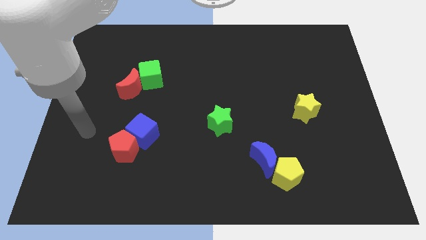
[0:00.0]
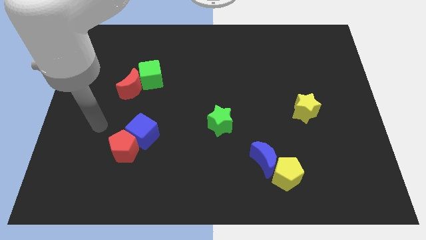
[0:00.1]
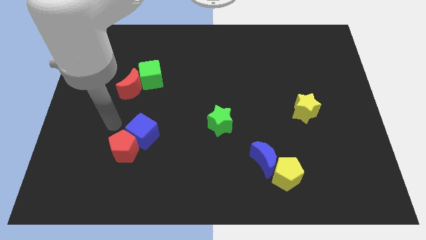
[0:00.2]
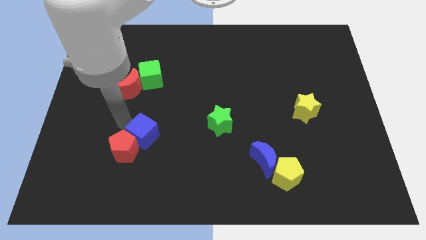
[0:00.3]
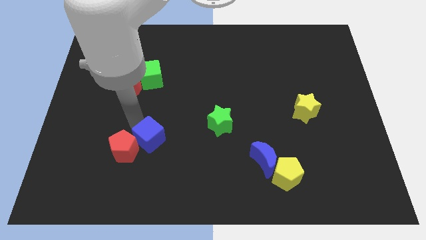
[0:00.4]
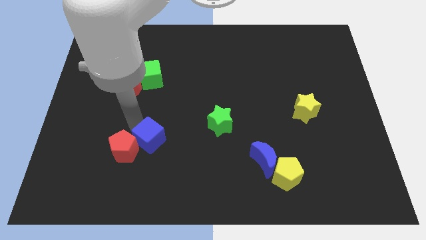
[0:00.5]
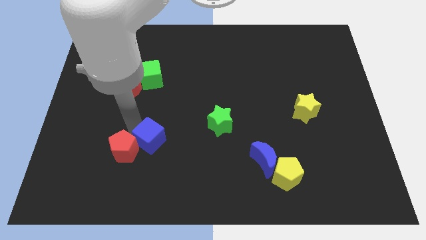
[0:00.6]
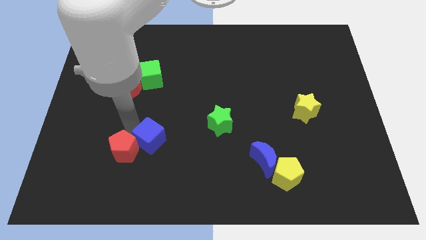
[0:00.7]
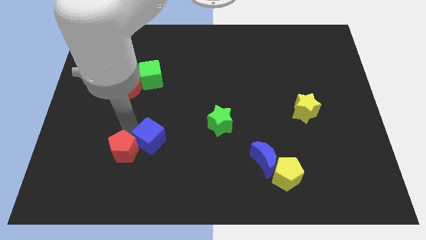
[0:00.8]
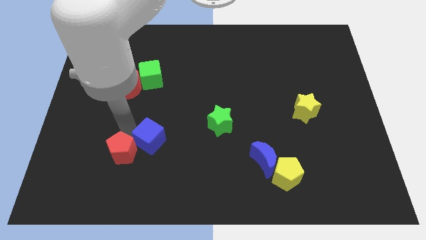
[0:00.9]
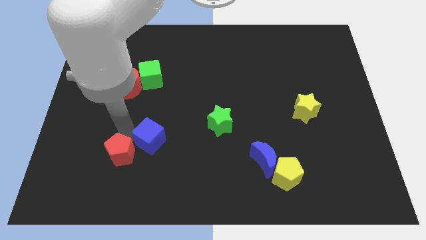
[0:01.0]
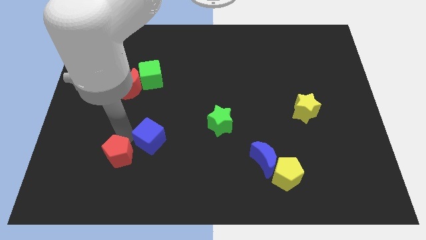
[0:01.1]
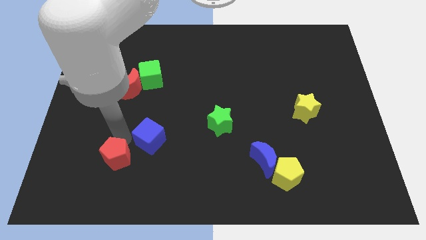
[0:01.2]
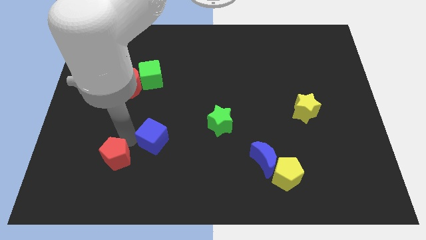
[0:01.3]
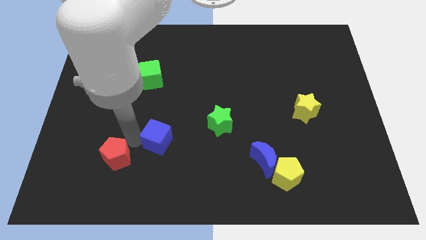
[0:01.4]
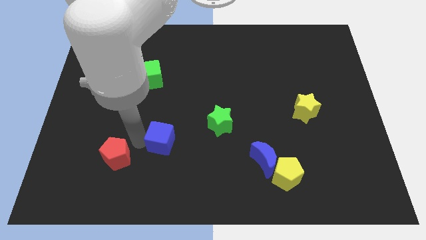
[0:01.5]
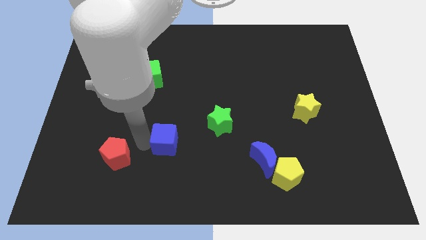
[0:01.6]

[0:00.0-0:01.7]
move the red pentagon away from the blue cube

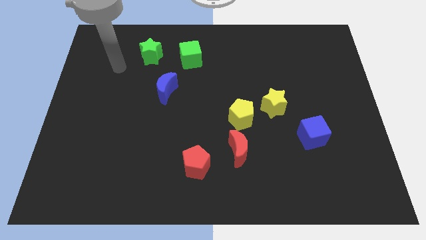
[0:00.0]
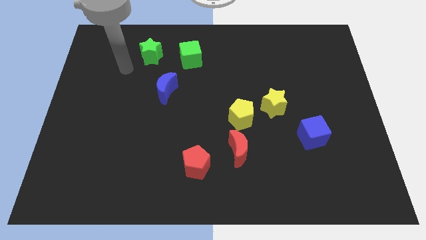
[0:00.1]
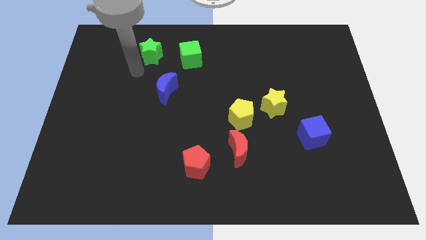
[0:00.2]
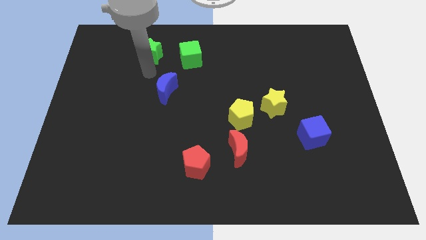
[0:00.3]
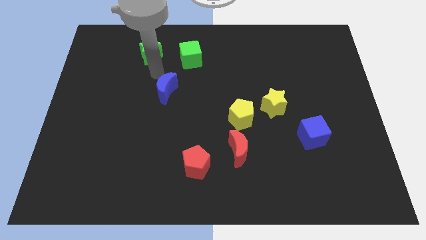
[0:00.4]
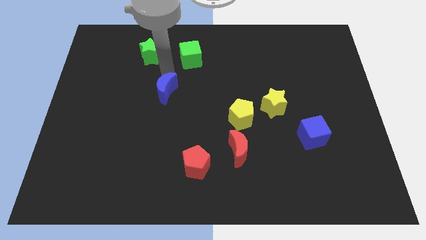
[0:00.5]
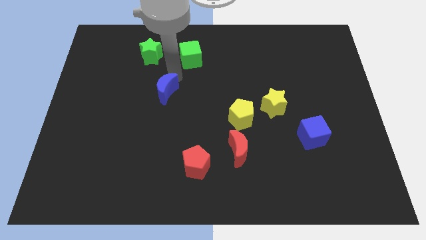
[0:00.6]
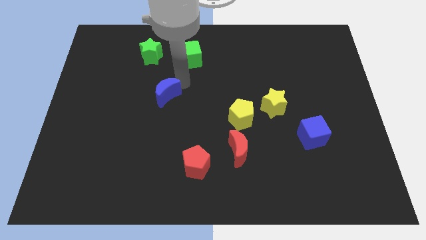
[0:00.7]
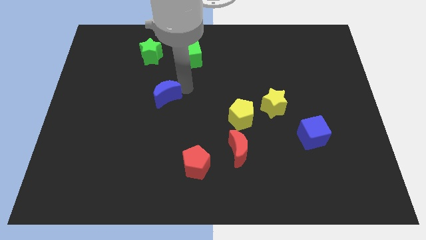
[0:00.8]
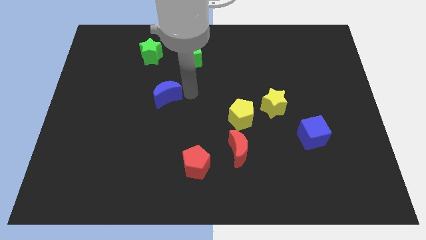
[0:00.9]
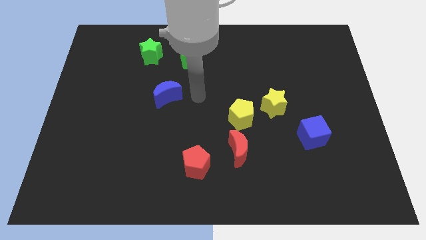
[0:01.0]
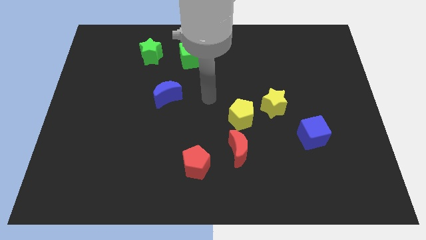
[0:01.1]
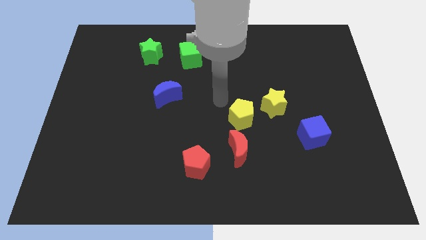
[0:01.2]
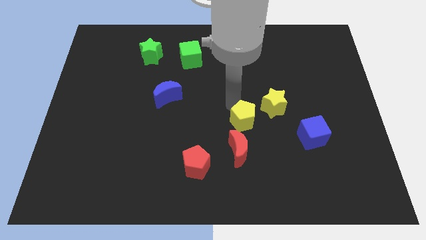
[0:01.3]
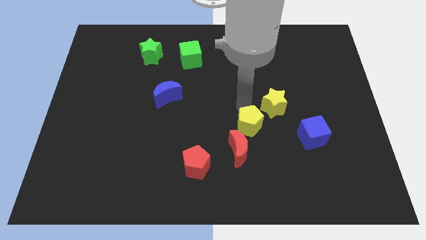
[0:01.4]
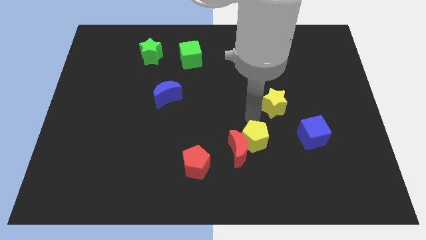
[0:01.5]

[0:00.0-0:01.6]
move the yellow star away from the yellow pentagon

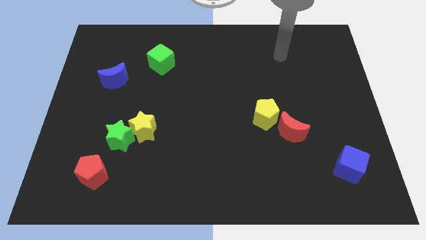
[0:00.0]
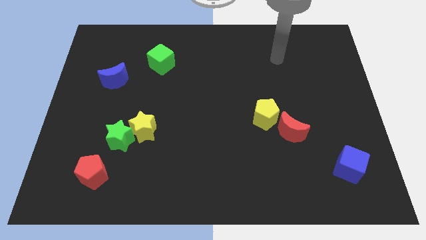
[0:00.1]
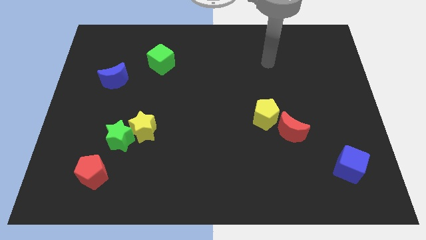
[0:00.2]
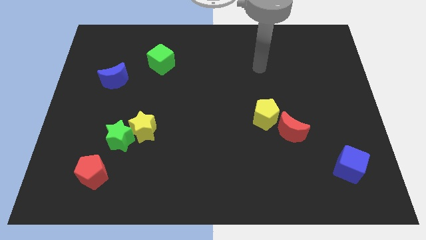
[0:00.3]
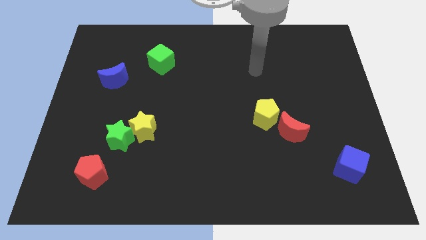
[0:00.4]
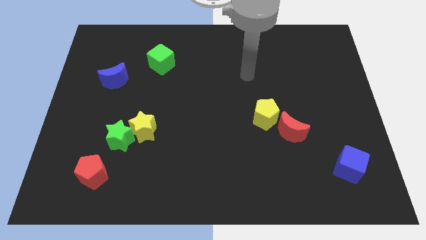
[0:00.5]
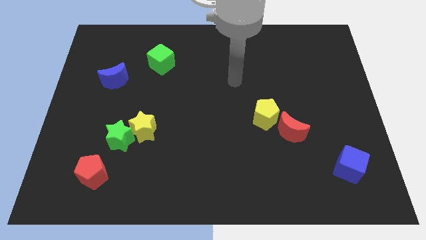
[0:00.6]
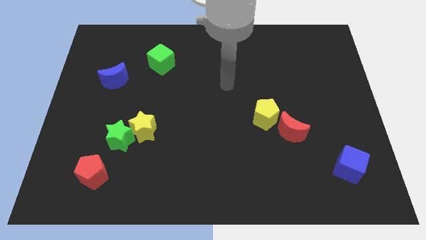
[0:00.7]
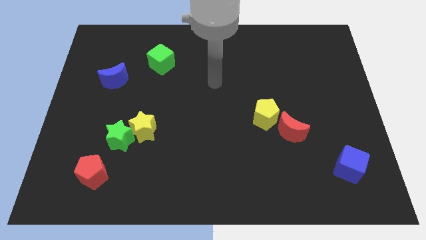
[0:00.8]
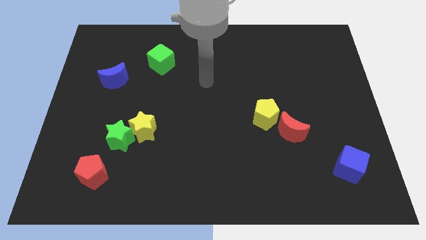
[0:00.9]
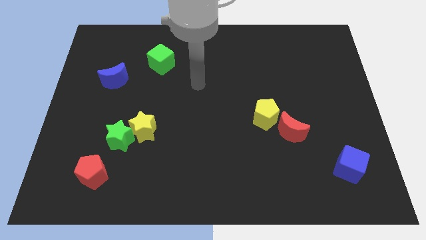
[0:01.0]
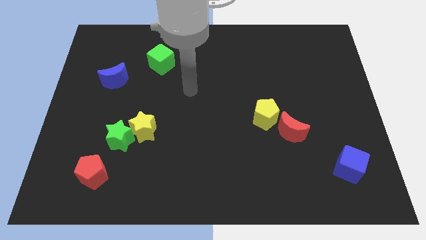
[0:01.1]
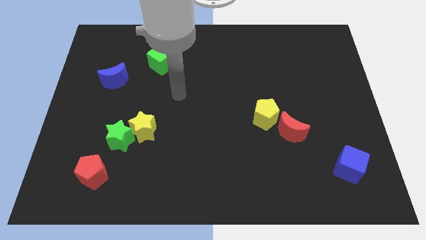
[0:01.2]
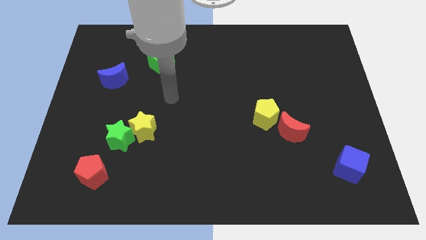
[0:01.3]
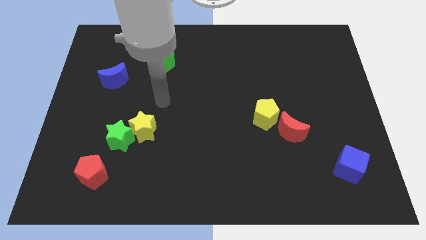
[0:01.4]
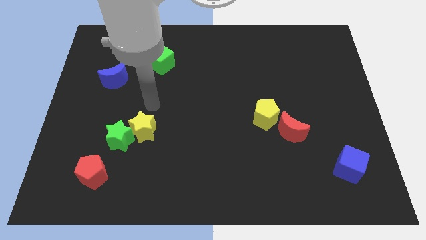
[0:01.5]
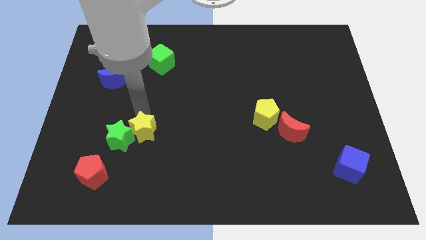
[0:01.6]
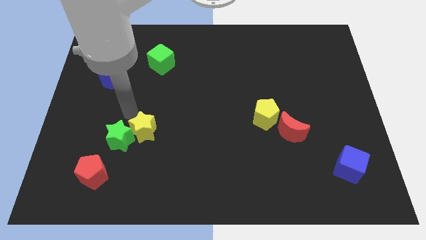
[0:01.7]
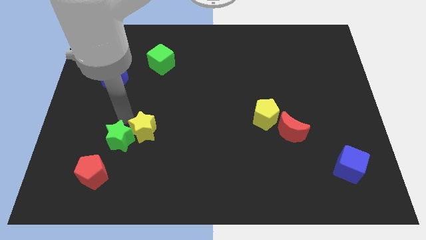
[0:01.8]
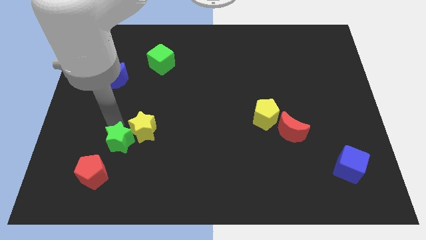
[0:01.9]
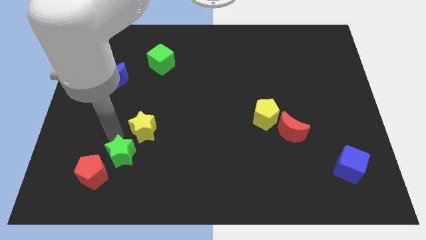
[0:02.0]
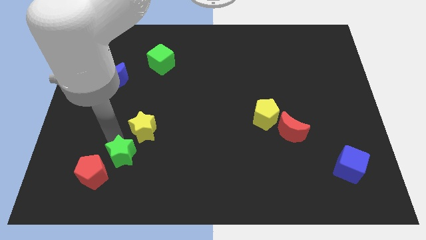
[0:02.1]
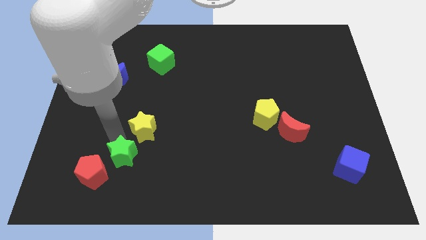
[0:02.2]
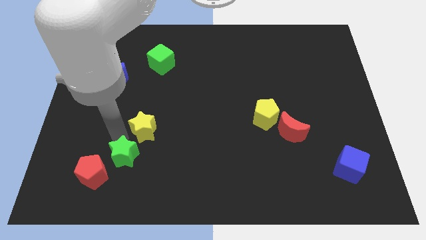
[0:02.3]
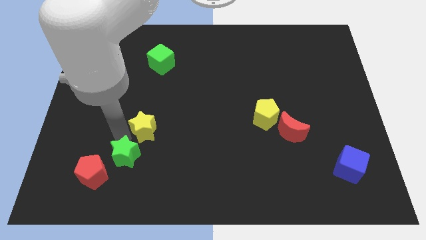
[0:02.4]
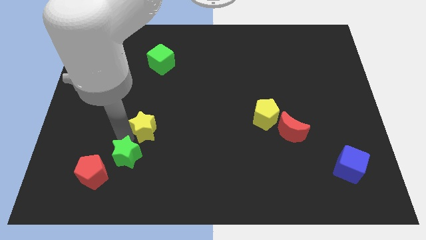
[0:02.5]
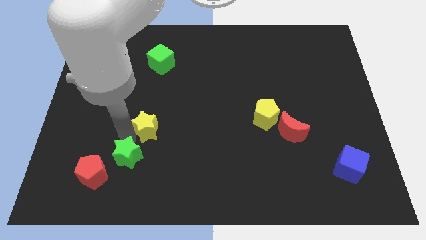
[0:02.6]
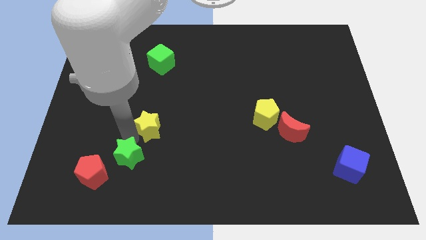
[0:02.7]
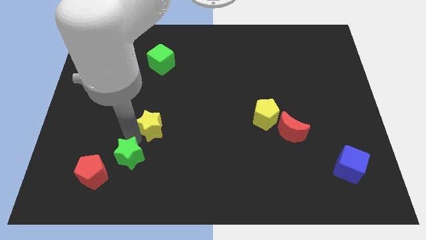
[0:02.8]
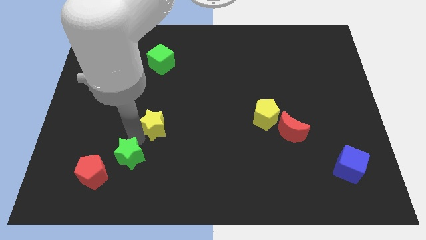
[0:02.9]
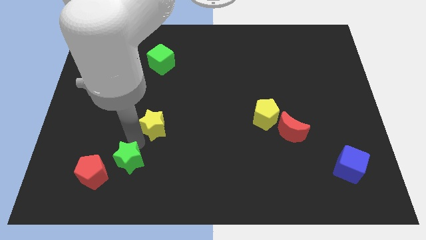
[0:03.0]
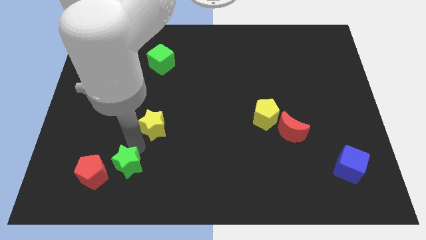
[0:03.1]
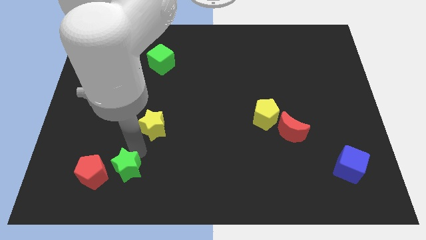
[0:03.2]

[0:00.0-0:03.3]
separate the yellow star from the green star

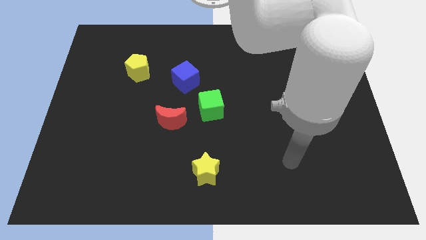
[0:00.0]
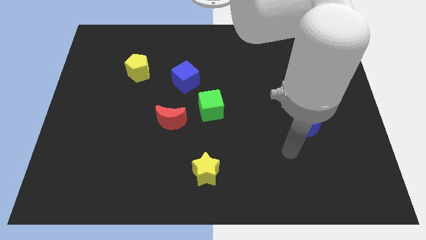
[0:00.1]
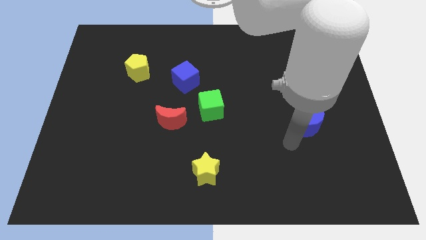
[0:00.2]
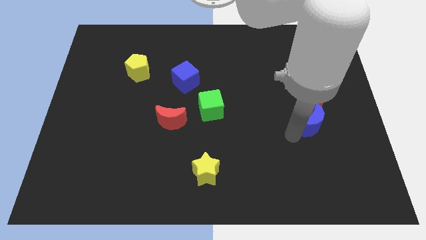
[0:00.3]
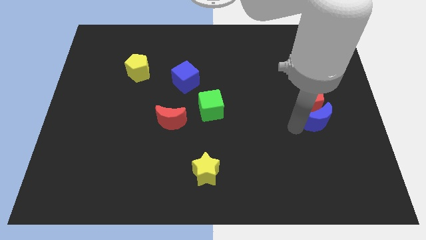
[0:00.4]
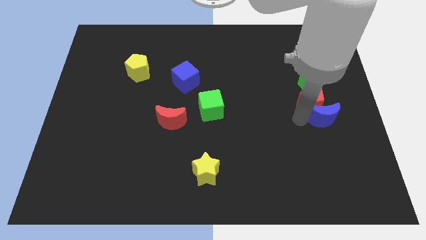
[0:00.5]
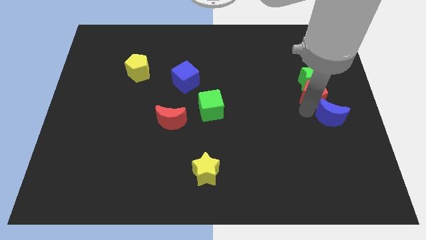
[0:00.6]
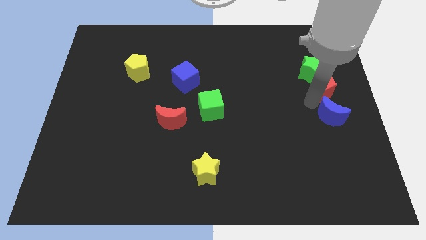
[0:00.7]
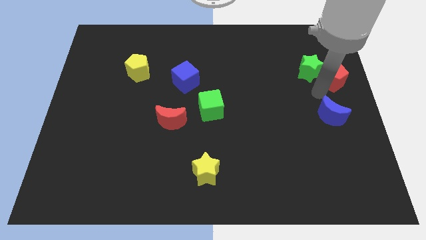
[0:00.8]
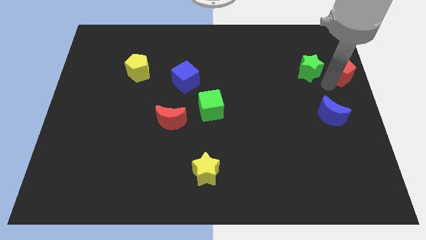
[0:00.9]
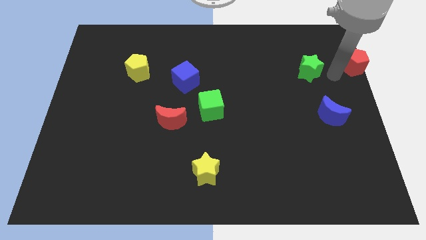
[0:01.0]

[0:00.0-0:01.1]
separate the green star from the red pentagon

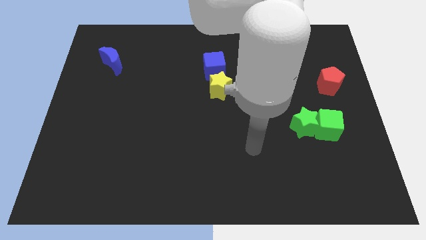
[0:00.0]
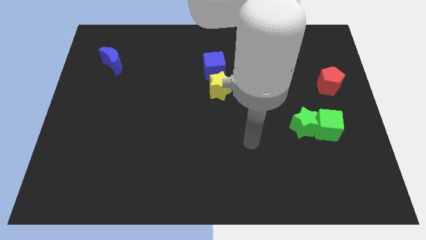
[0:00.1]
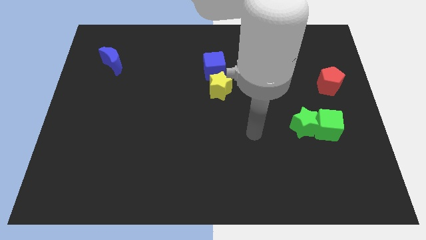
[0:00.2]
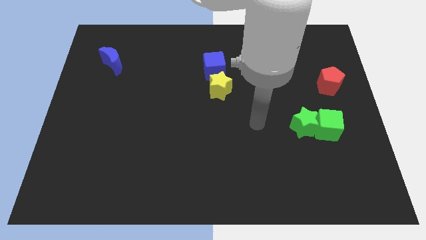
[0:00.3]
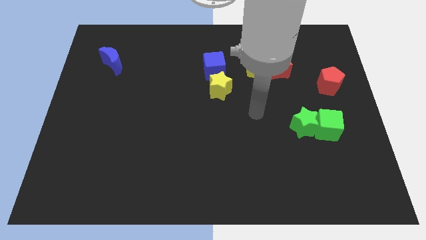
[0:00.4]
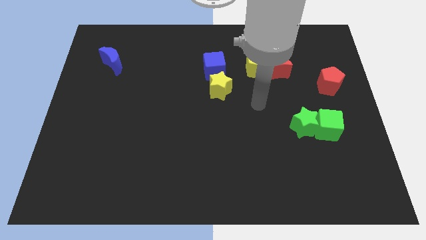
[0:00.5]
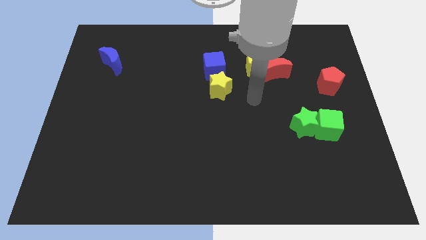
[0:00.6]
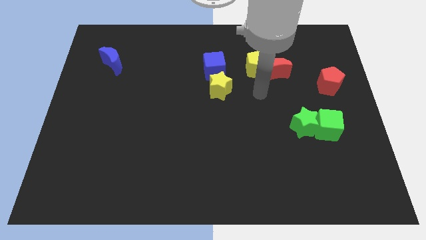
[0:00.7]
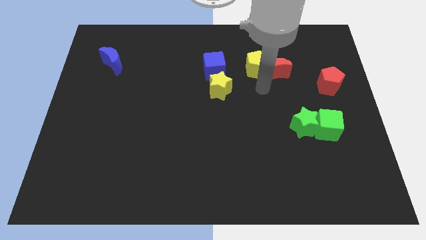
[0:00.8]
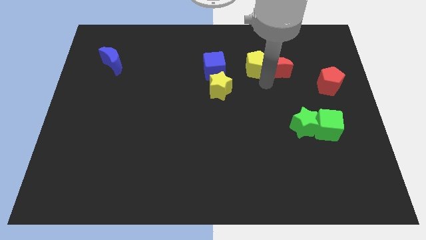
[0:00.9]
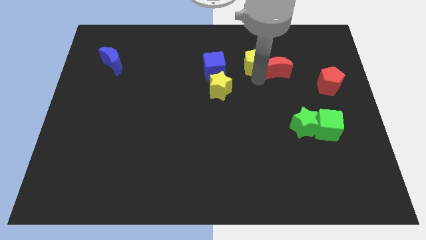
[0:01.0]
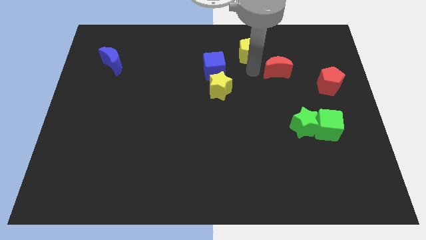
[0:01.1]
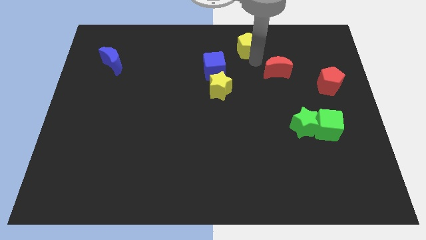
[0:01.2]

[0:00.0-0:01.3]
pull the red moon apart from the yellow pentagon

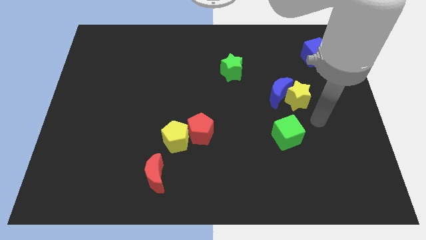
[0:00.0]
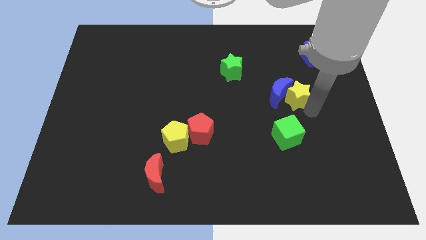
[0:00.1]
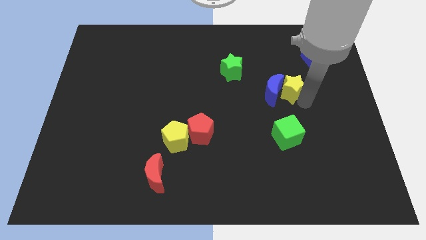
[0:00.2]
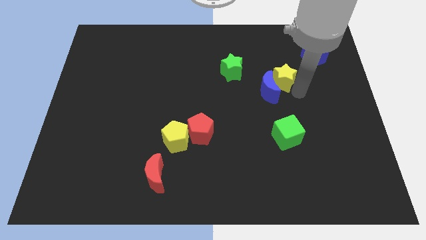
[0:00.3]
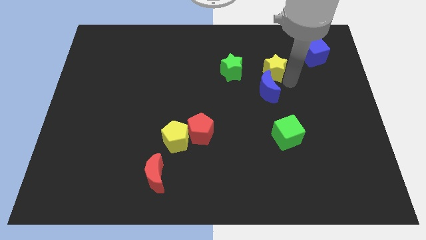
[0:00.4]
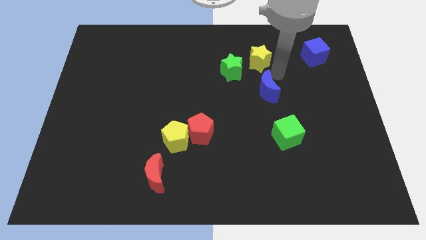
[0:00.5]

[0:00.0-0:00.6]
pull the blue moon apart from the yellow star
